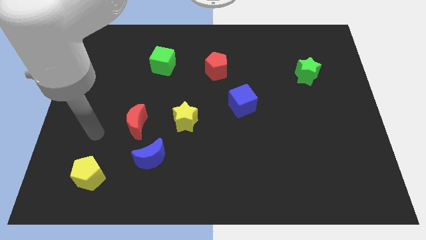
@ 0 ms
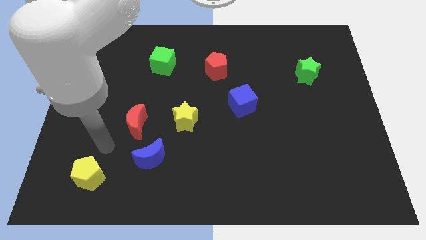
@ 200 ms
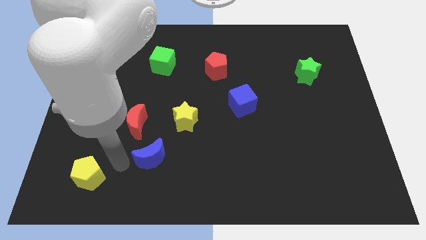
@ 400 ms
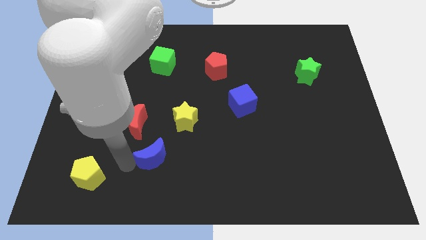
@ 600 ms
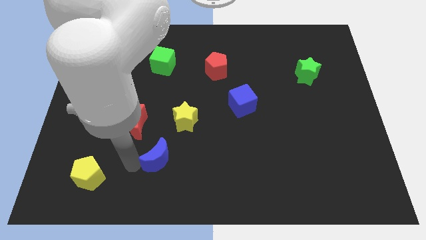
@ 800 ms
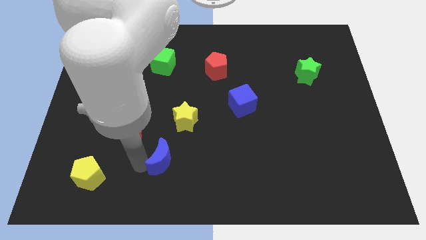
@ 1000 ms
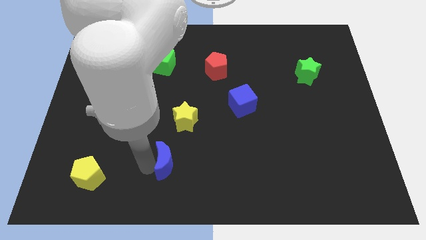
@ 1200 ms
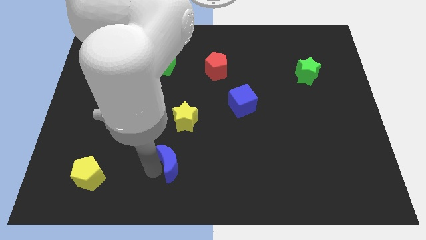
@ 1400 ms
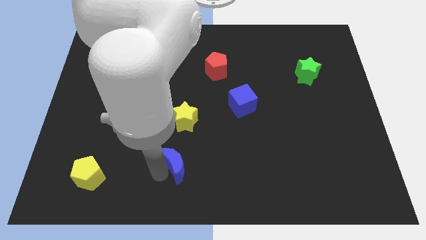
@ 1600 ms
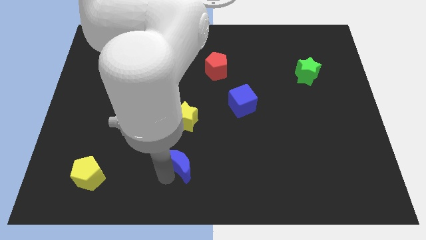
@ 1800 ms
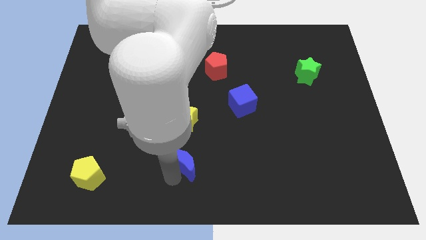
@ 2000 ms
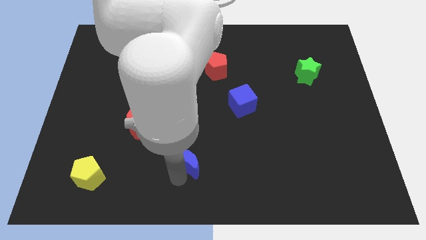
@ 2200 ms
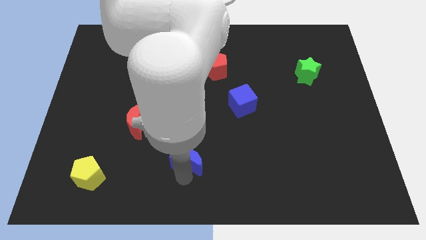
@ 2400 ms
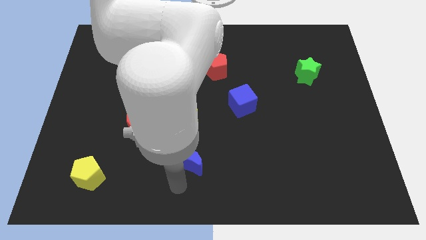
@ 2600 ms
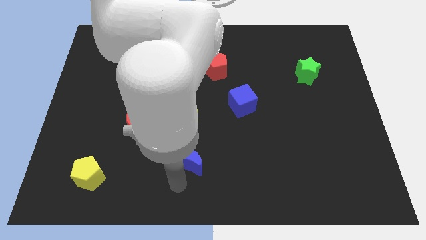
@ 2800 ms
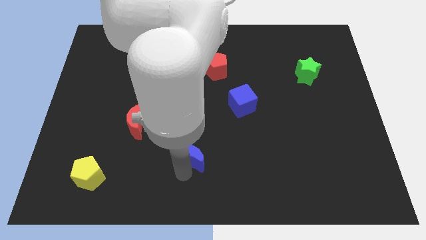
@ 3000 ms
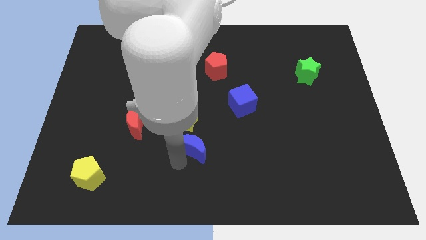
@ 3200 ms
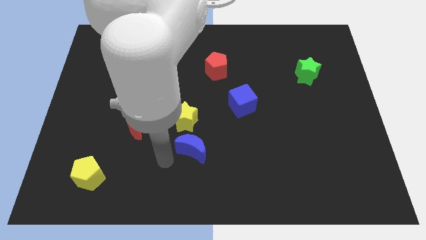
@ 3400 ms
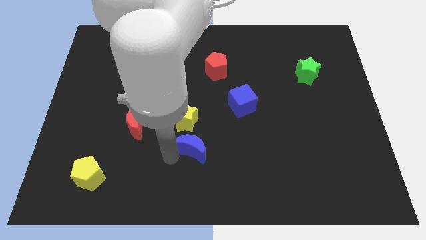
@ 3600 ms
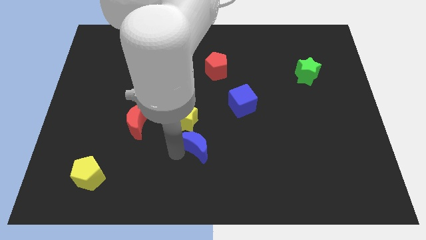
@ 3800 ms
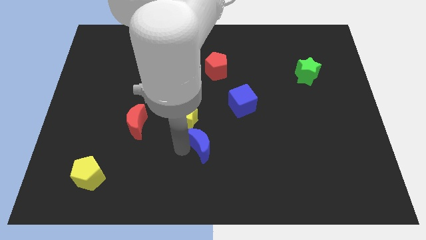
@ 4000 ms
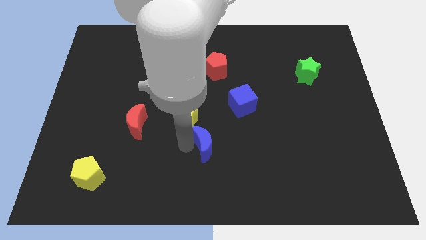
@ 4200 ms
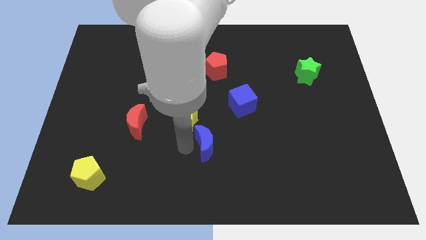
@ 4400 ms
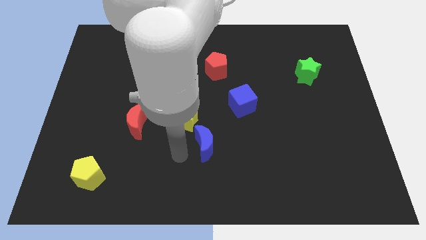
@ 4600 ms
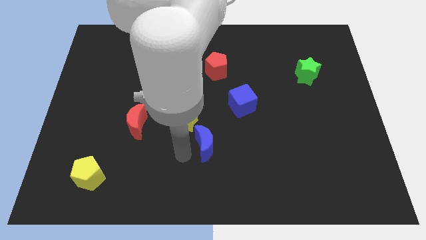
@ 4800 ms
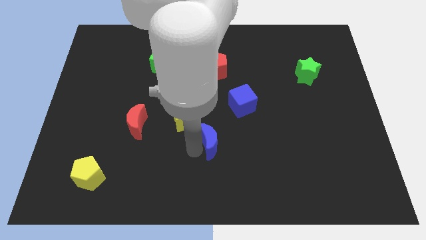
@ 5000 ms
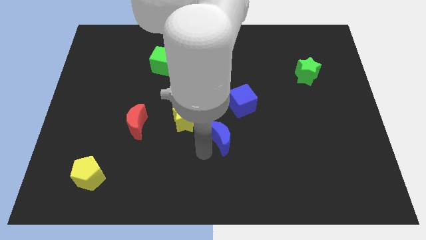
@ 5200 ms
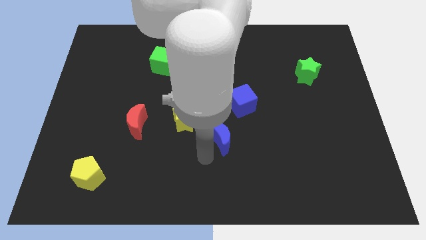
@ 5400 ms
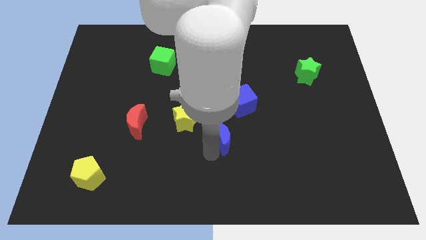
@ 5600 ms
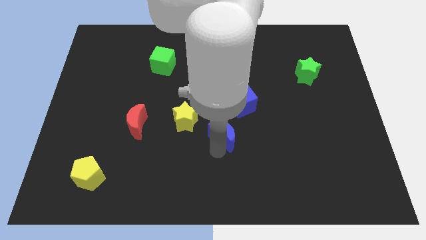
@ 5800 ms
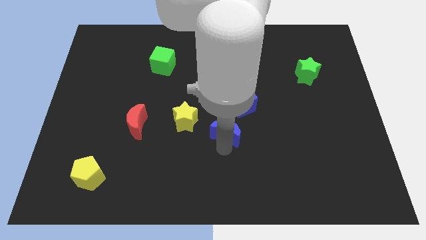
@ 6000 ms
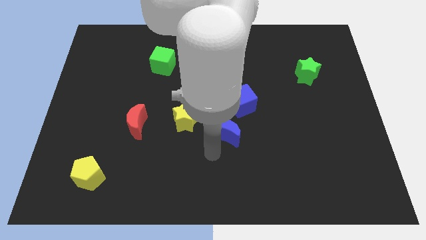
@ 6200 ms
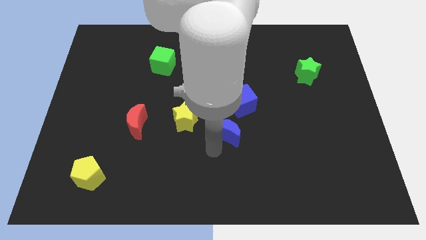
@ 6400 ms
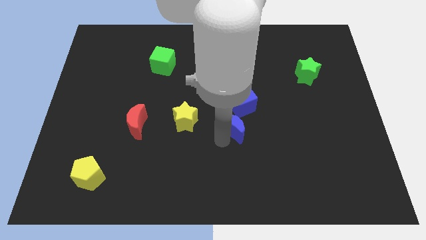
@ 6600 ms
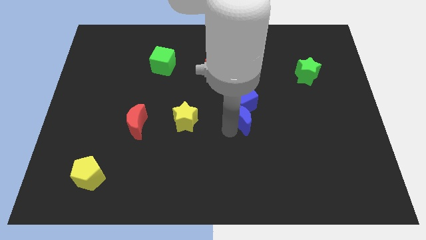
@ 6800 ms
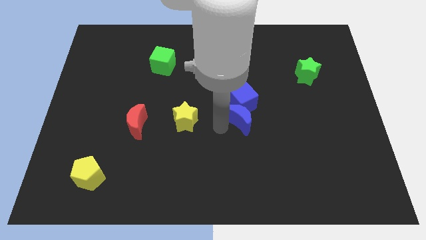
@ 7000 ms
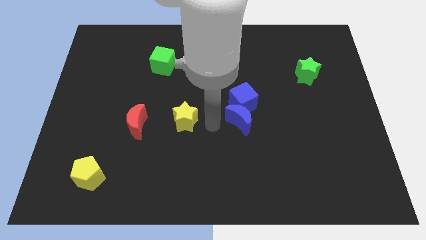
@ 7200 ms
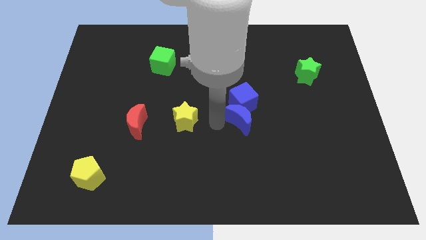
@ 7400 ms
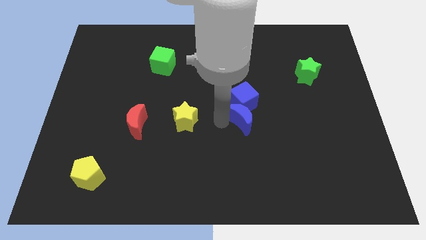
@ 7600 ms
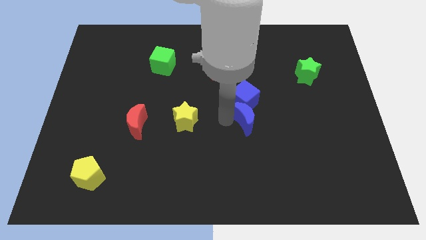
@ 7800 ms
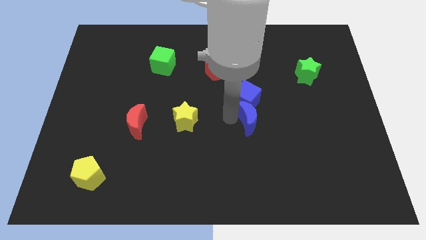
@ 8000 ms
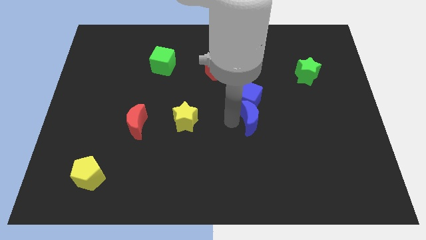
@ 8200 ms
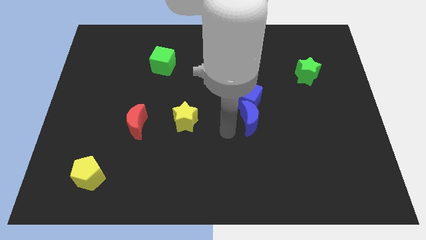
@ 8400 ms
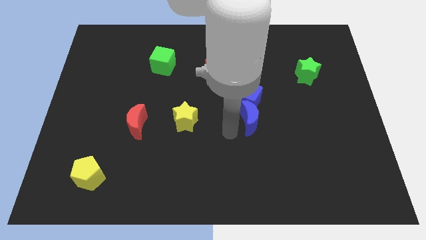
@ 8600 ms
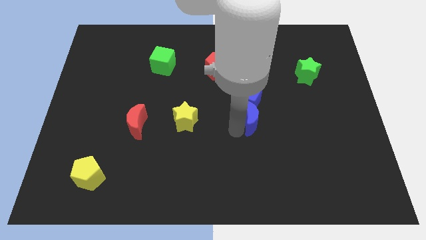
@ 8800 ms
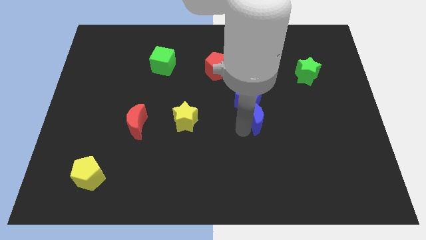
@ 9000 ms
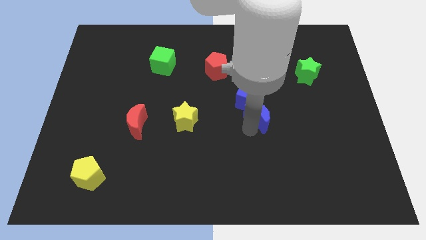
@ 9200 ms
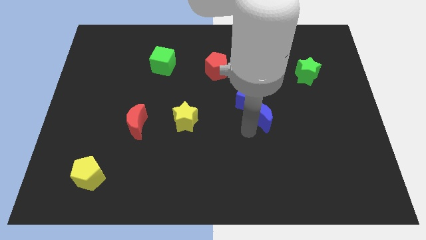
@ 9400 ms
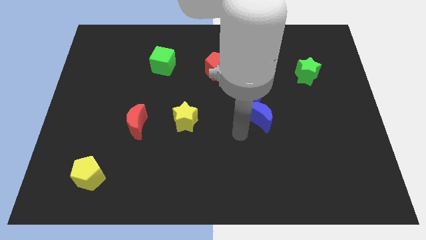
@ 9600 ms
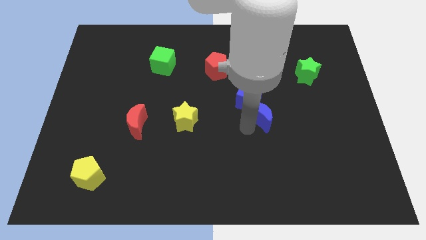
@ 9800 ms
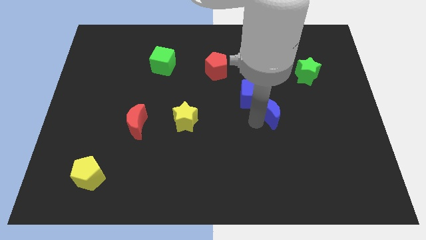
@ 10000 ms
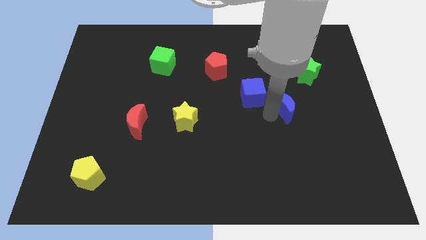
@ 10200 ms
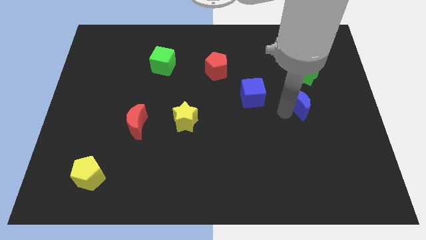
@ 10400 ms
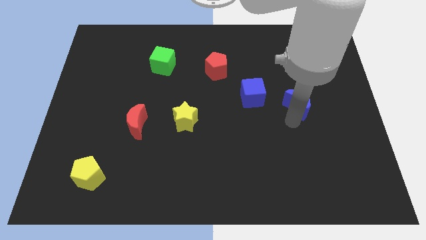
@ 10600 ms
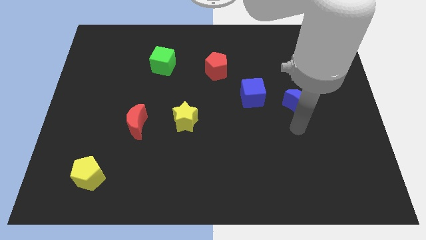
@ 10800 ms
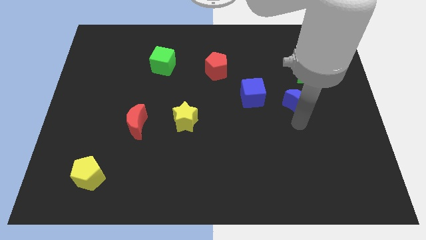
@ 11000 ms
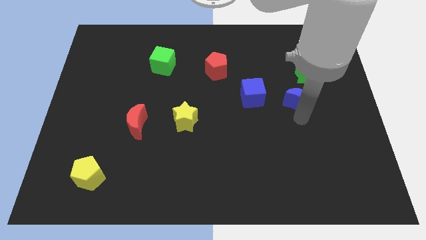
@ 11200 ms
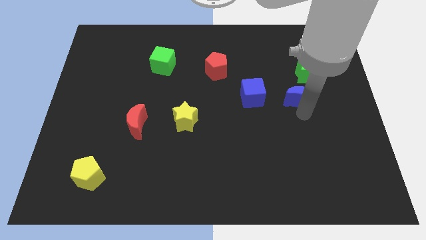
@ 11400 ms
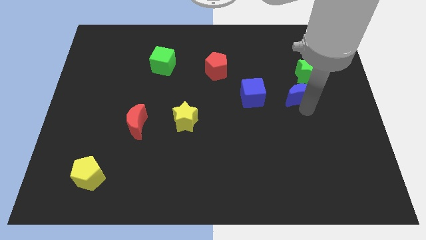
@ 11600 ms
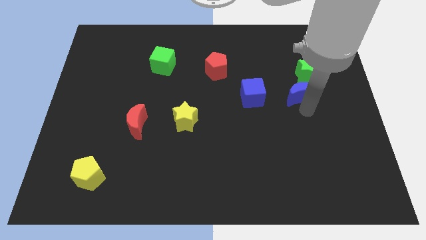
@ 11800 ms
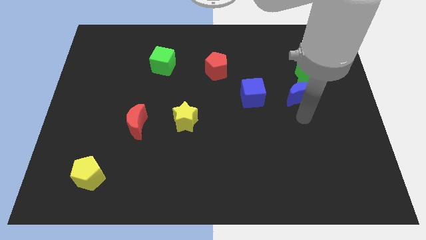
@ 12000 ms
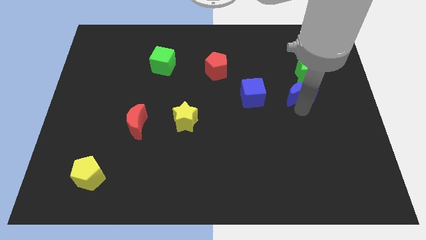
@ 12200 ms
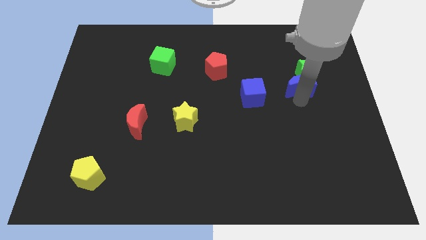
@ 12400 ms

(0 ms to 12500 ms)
put the blue moon next to the green star

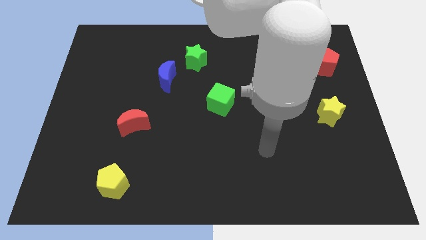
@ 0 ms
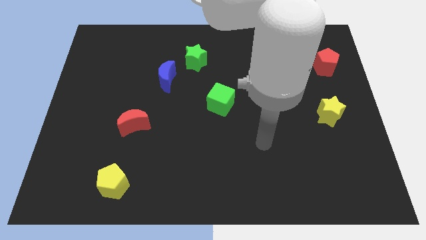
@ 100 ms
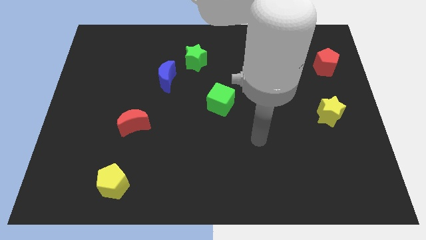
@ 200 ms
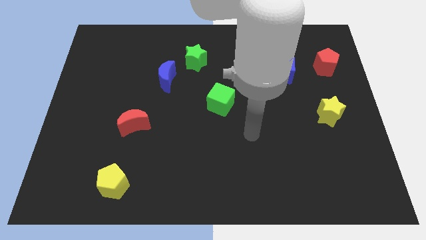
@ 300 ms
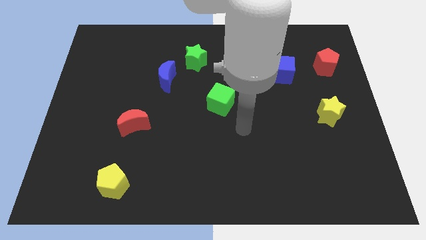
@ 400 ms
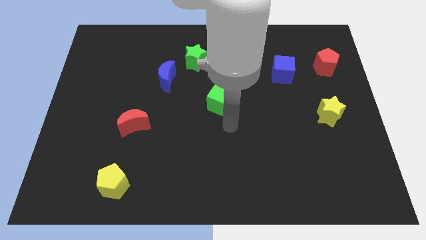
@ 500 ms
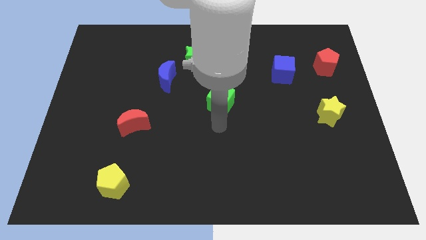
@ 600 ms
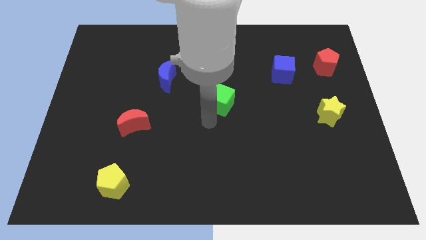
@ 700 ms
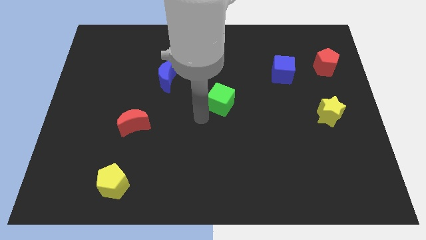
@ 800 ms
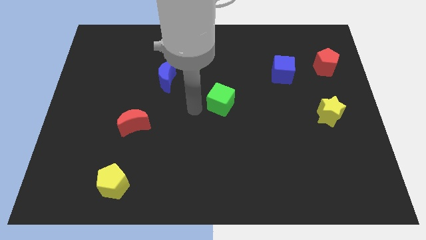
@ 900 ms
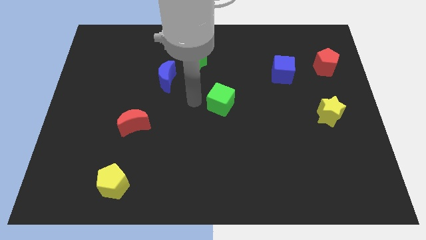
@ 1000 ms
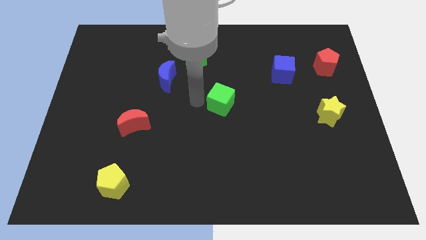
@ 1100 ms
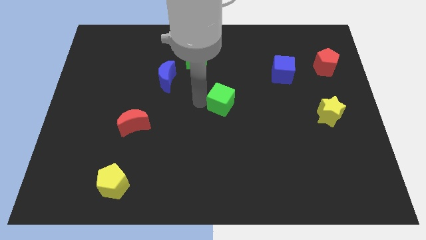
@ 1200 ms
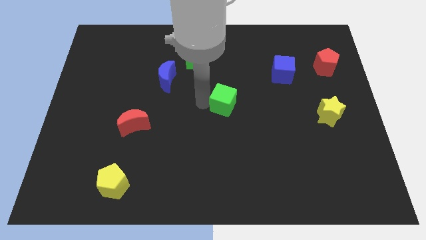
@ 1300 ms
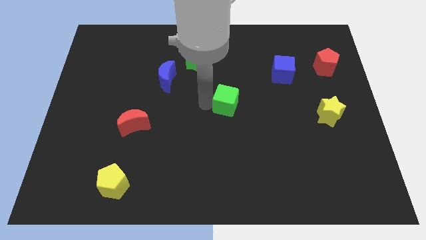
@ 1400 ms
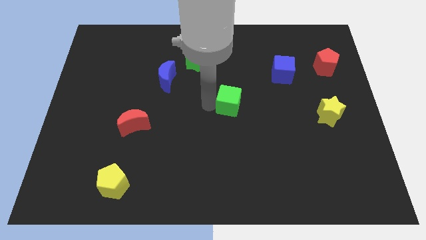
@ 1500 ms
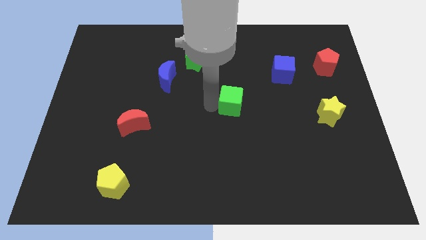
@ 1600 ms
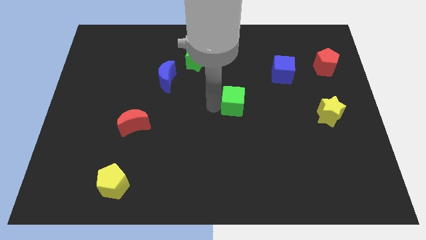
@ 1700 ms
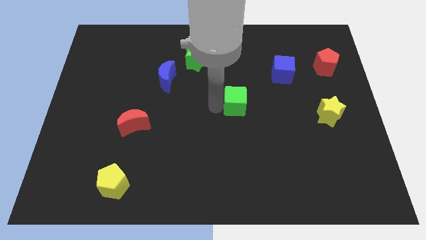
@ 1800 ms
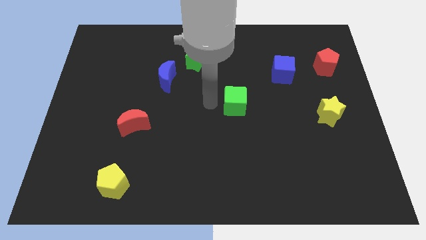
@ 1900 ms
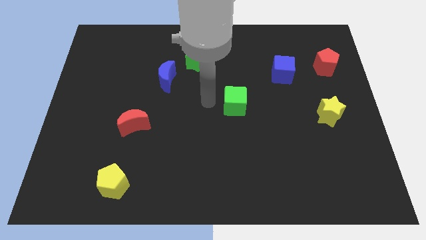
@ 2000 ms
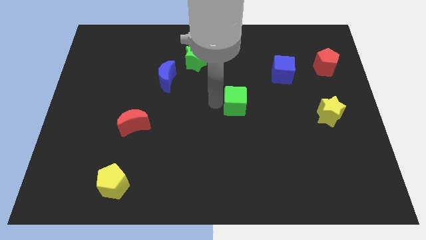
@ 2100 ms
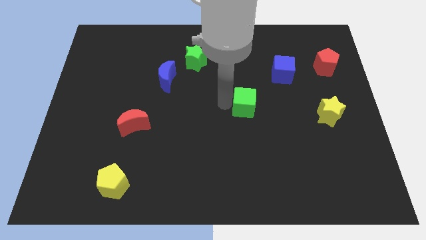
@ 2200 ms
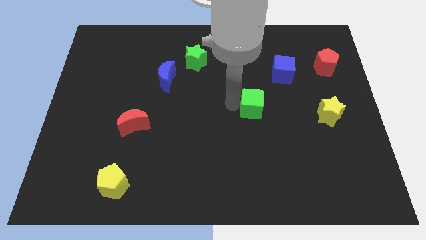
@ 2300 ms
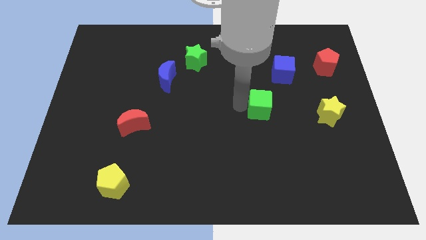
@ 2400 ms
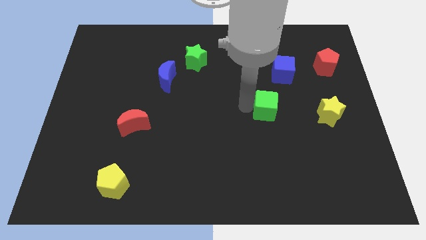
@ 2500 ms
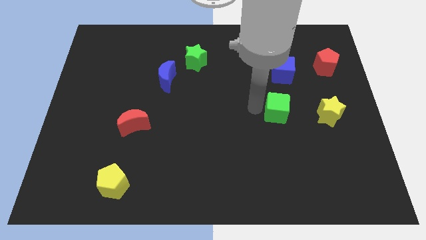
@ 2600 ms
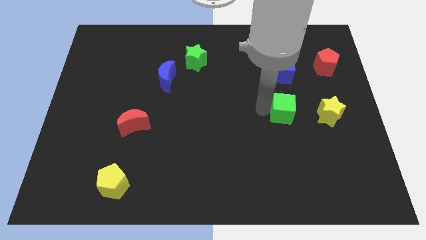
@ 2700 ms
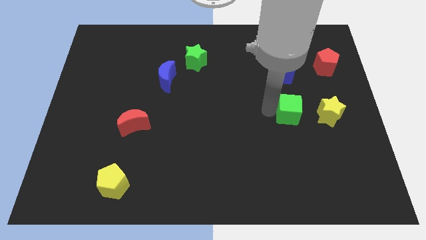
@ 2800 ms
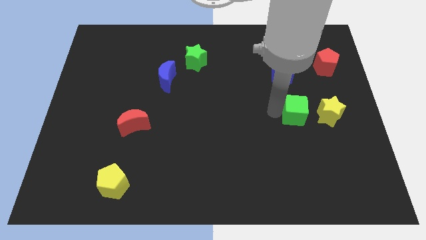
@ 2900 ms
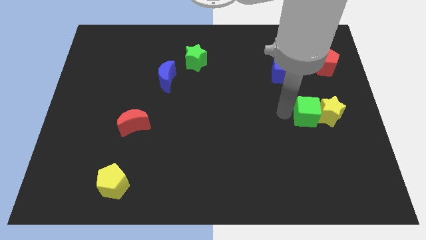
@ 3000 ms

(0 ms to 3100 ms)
push the green cube towards the yellow star
